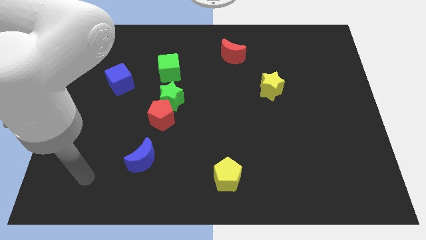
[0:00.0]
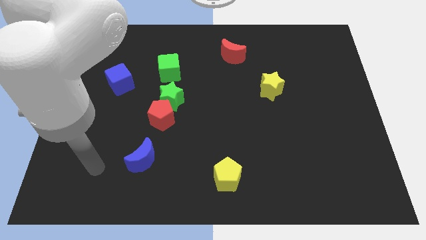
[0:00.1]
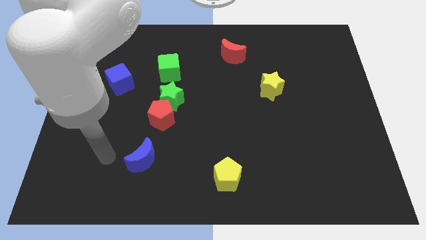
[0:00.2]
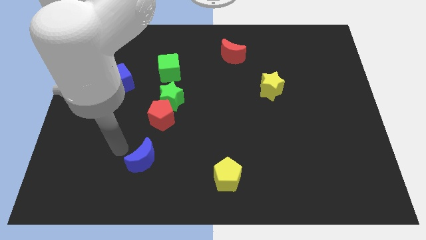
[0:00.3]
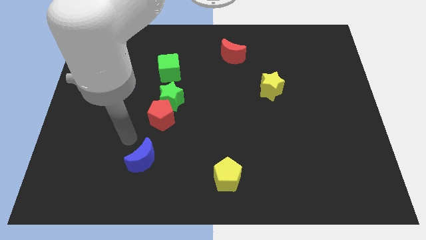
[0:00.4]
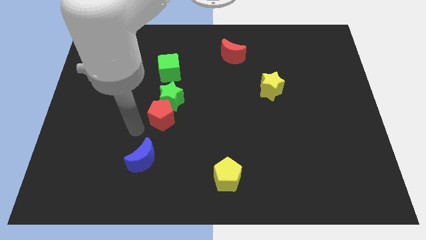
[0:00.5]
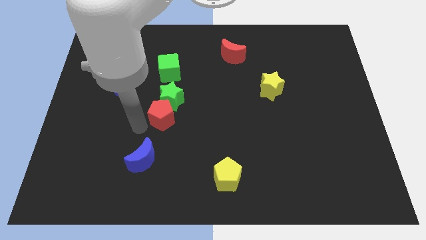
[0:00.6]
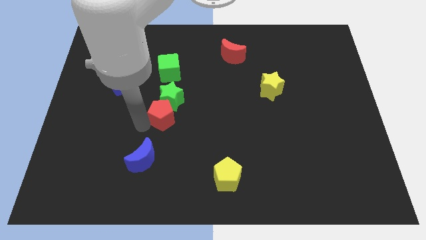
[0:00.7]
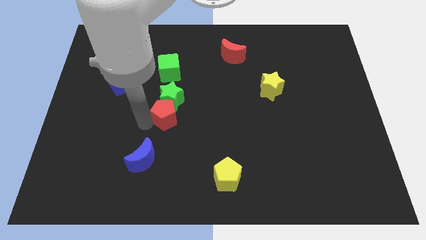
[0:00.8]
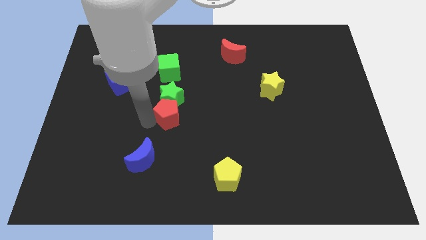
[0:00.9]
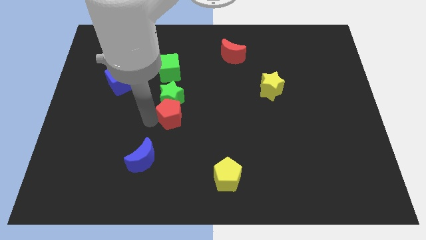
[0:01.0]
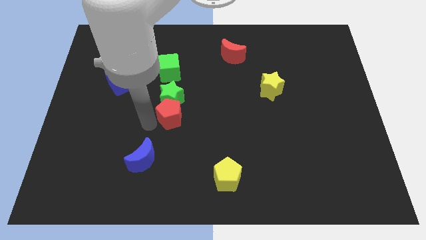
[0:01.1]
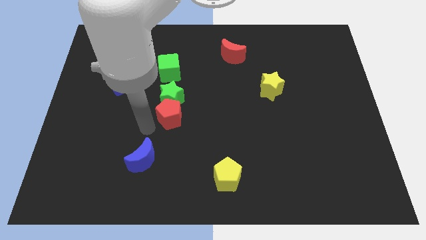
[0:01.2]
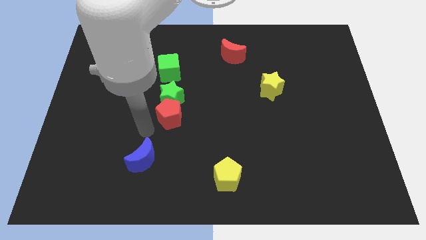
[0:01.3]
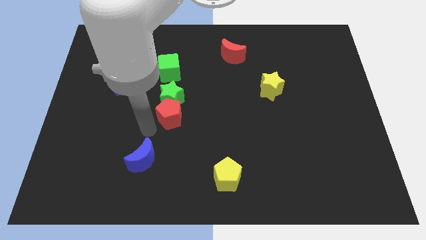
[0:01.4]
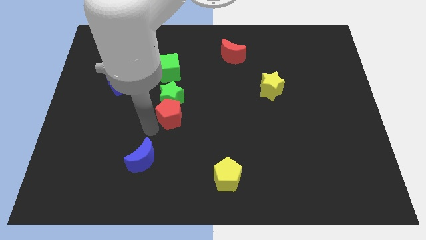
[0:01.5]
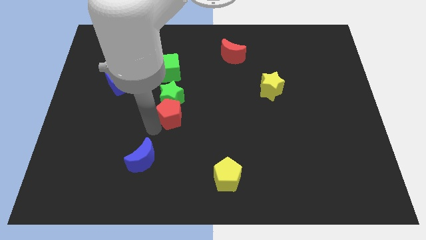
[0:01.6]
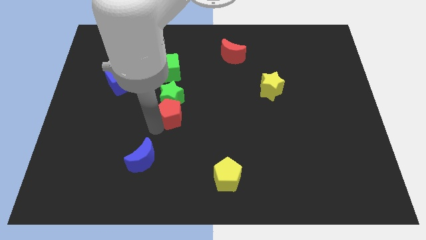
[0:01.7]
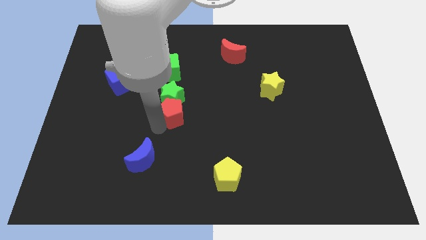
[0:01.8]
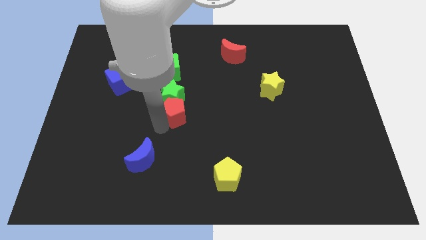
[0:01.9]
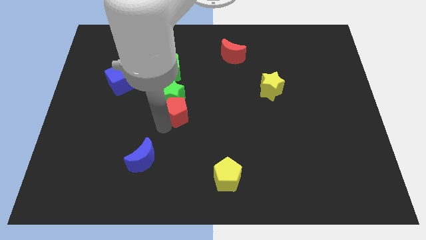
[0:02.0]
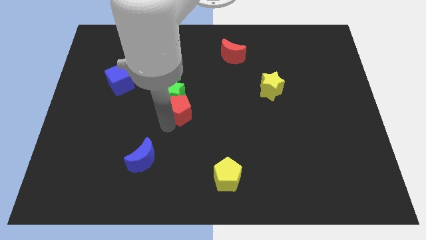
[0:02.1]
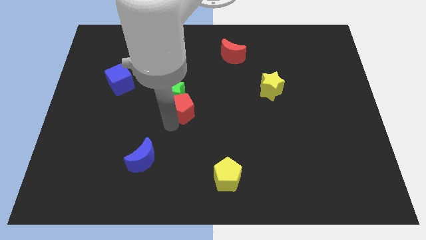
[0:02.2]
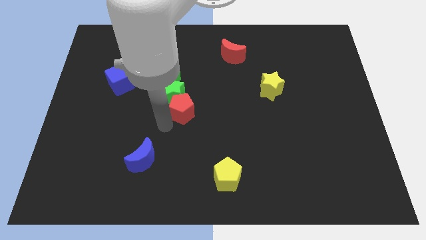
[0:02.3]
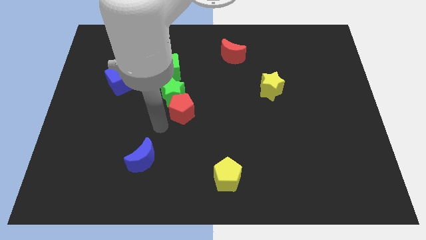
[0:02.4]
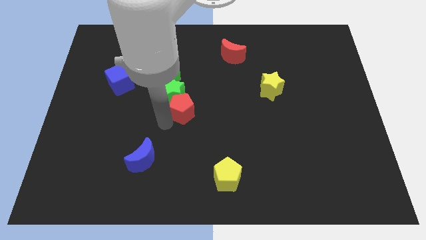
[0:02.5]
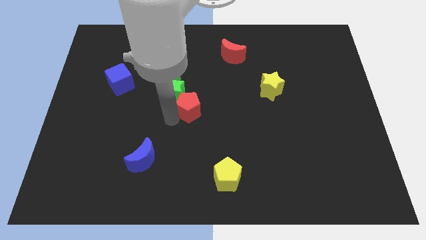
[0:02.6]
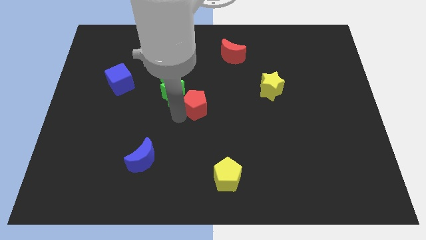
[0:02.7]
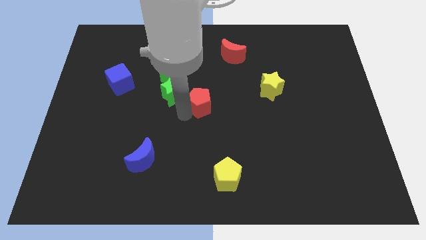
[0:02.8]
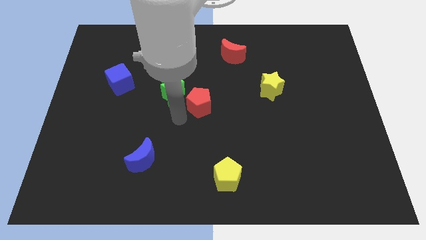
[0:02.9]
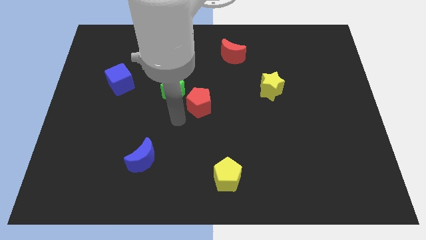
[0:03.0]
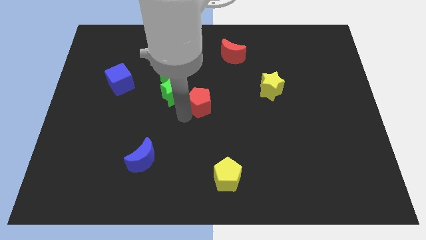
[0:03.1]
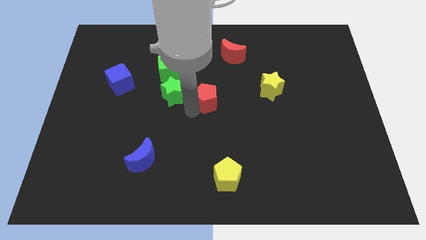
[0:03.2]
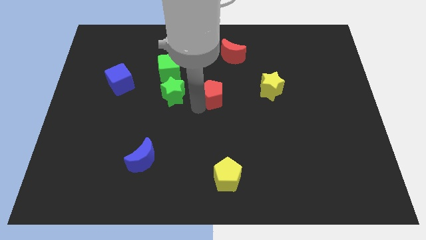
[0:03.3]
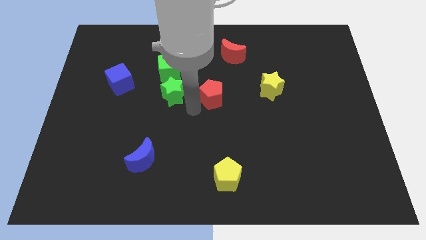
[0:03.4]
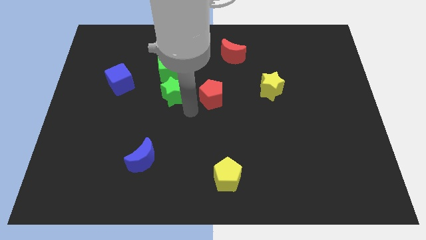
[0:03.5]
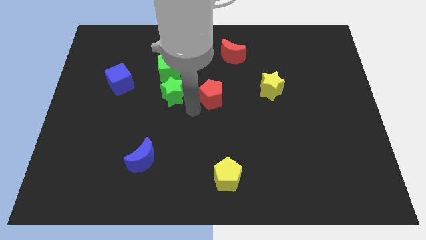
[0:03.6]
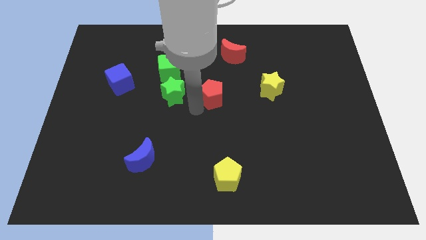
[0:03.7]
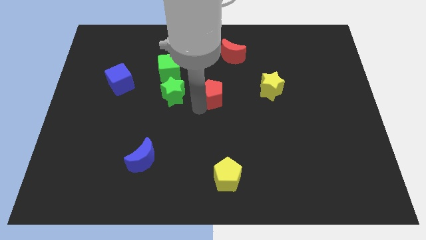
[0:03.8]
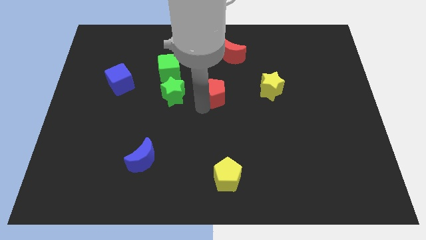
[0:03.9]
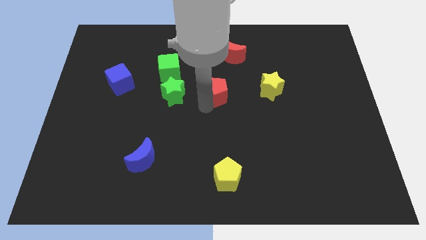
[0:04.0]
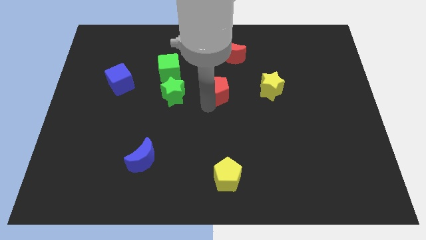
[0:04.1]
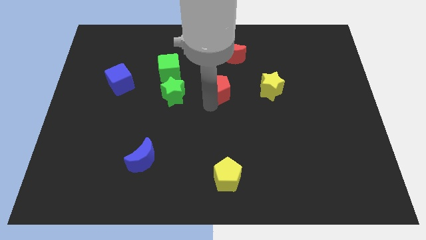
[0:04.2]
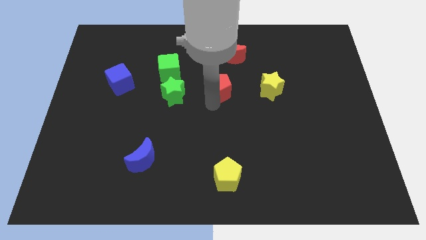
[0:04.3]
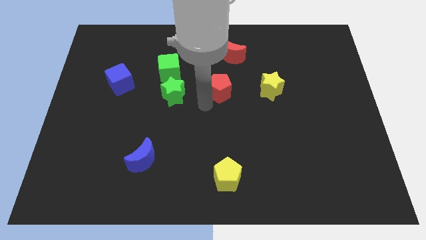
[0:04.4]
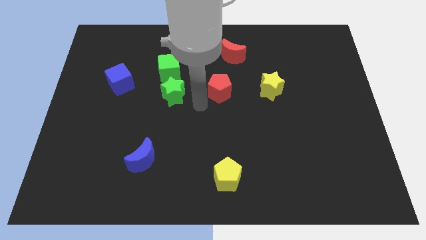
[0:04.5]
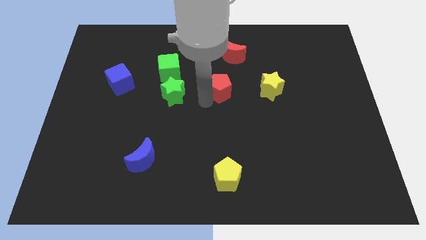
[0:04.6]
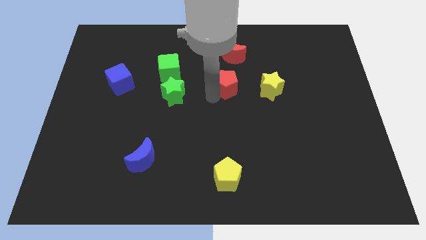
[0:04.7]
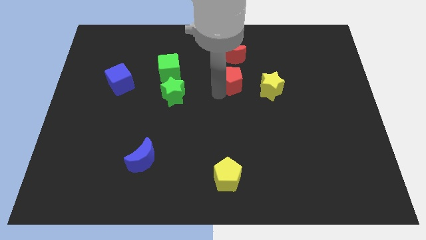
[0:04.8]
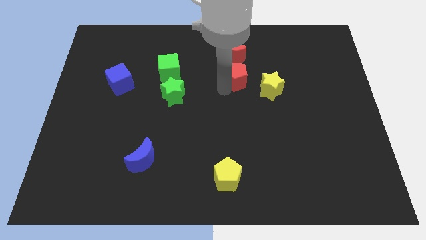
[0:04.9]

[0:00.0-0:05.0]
move the red pentagon to the top left of the yellow star

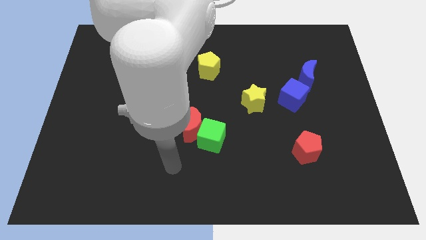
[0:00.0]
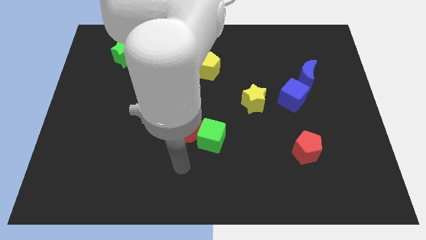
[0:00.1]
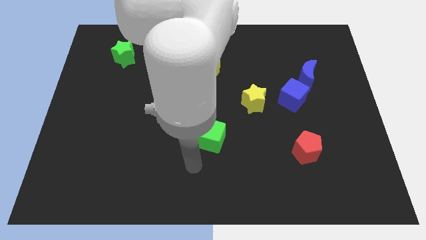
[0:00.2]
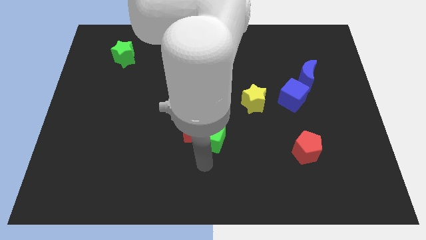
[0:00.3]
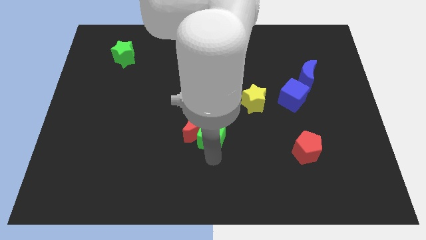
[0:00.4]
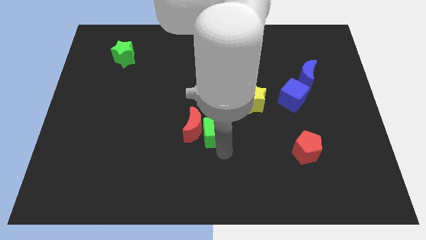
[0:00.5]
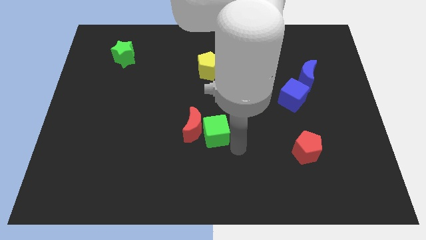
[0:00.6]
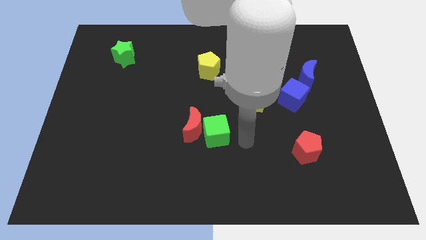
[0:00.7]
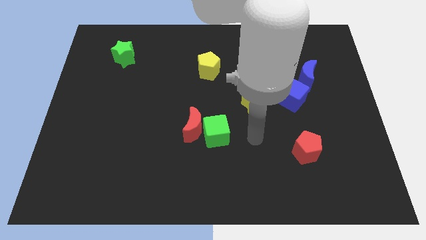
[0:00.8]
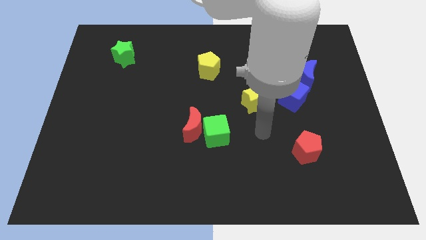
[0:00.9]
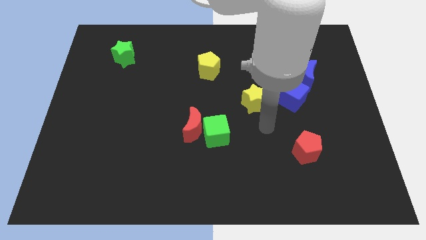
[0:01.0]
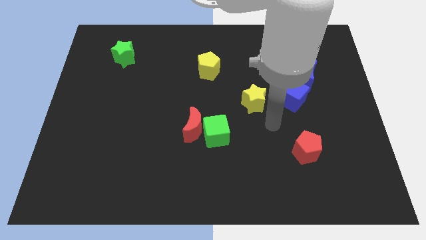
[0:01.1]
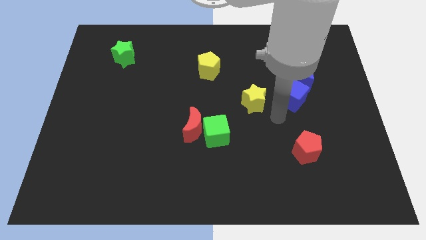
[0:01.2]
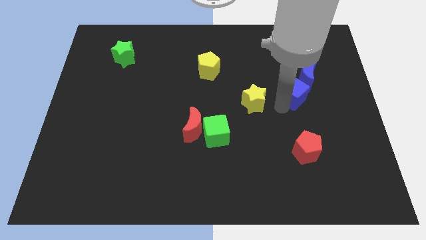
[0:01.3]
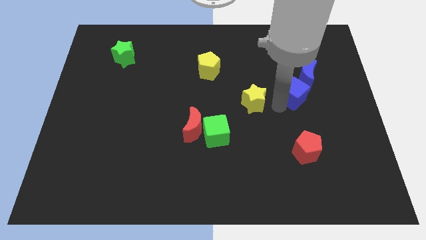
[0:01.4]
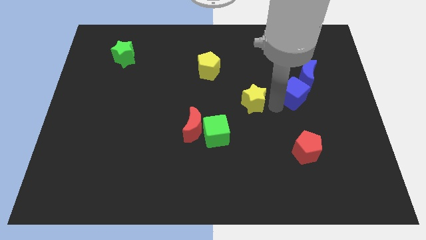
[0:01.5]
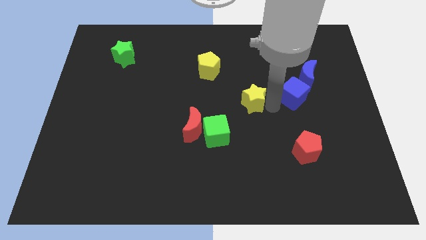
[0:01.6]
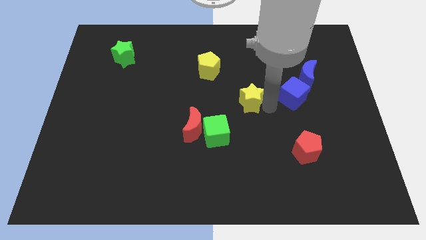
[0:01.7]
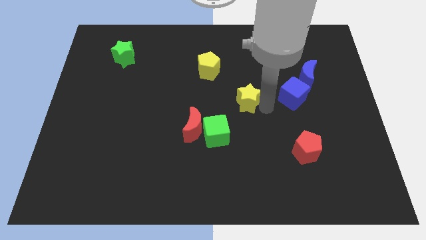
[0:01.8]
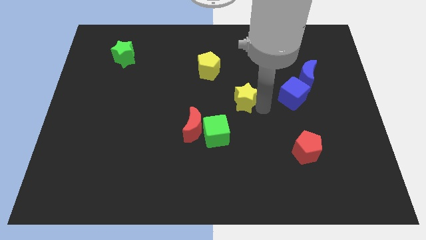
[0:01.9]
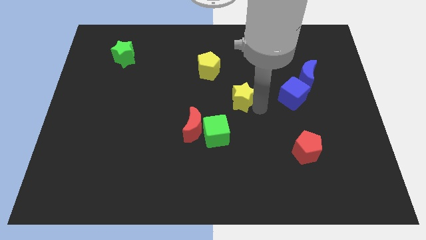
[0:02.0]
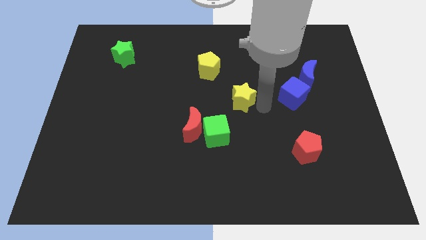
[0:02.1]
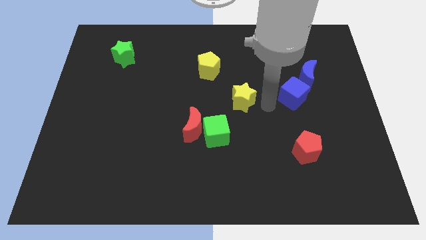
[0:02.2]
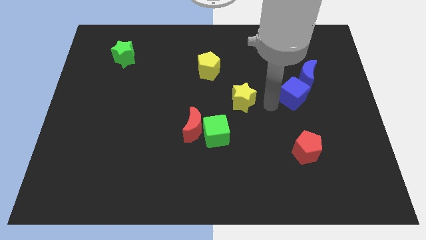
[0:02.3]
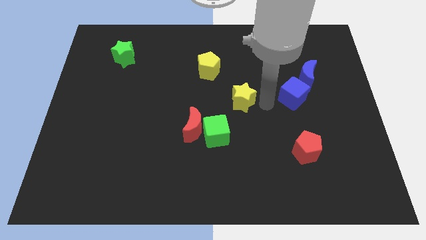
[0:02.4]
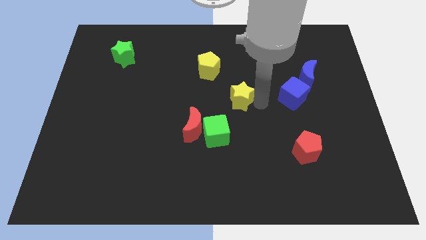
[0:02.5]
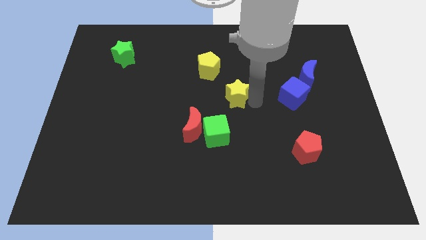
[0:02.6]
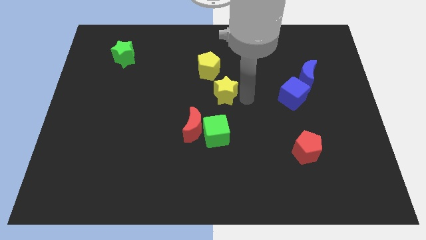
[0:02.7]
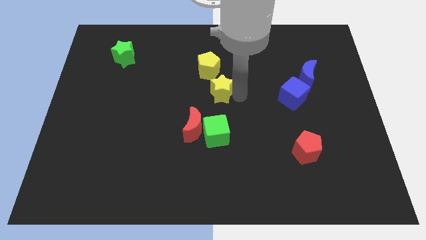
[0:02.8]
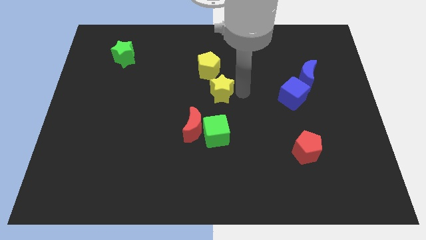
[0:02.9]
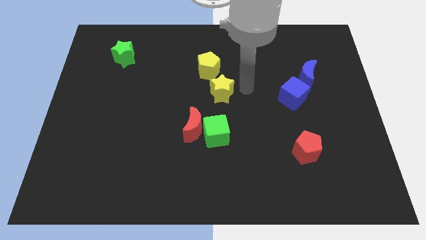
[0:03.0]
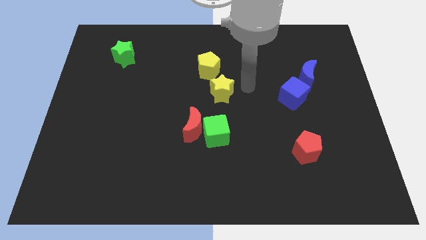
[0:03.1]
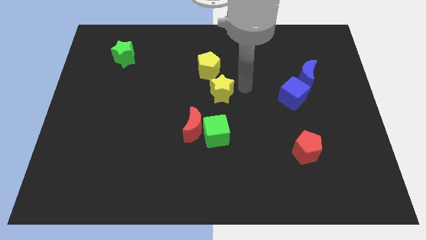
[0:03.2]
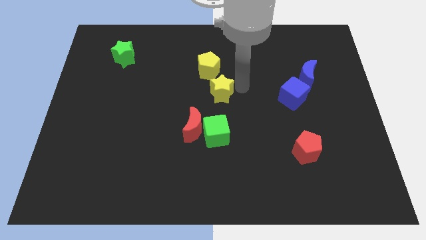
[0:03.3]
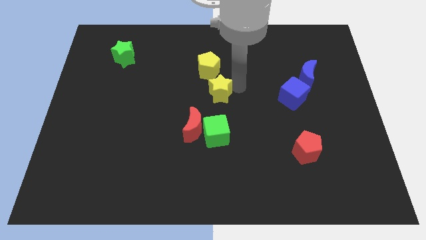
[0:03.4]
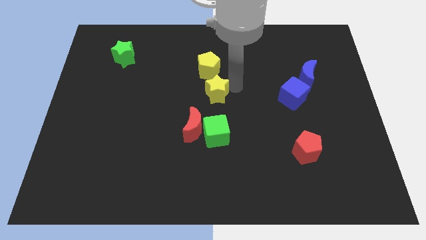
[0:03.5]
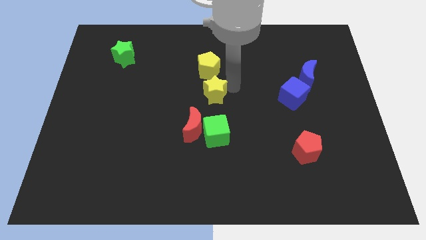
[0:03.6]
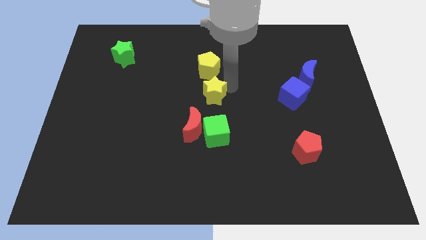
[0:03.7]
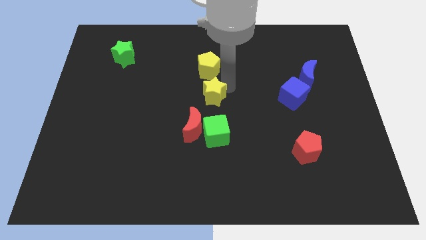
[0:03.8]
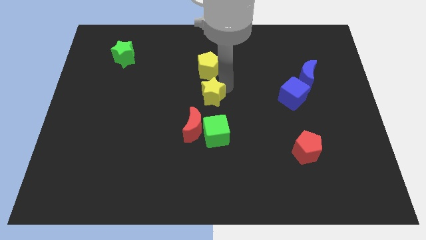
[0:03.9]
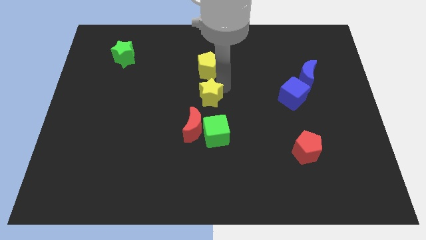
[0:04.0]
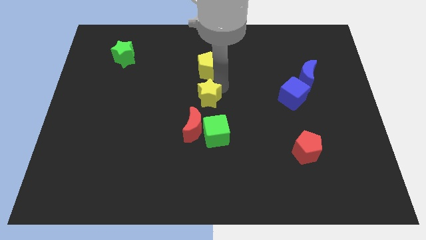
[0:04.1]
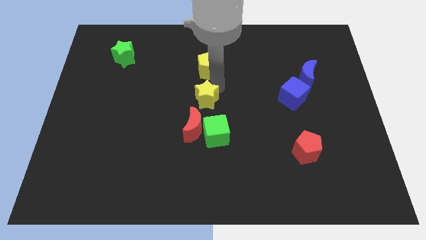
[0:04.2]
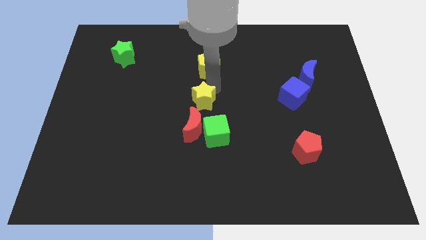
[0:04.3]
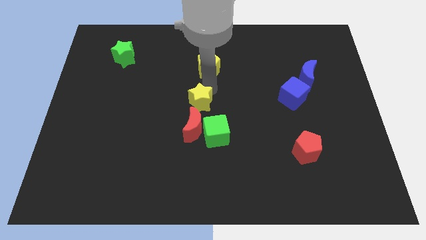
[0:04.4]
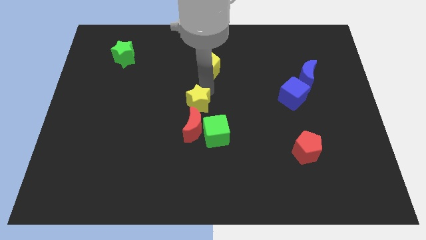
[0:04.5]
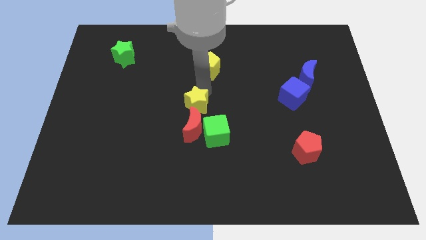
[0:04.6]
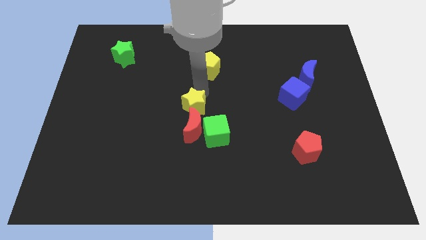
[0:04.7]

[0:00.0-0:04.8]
put the yellow star diagonally up and to the left of the red moon
